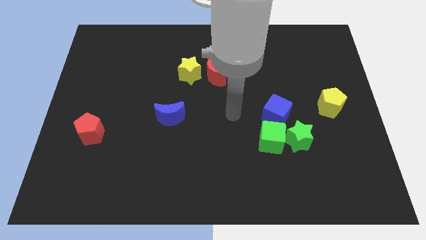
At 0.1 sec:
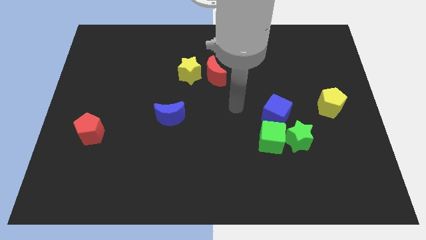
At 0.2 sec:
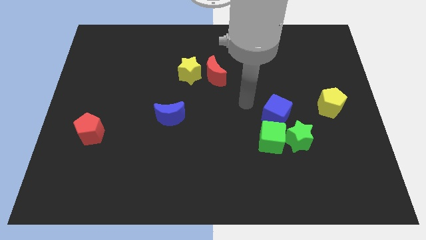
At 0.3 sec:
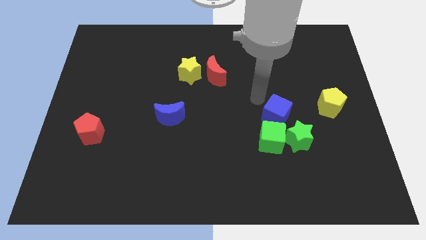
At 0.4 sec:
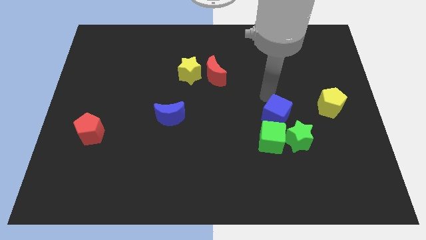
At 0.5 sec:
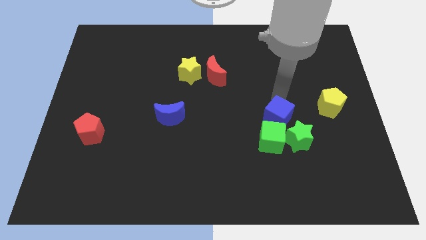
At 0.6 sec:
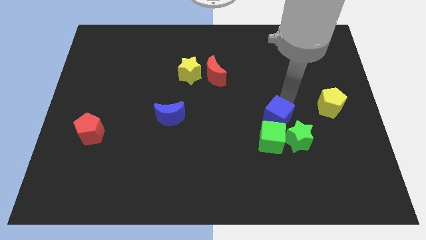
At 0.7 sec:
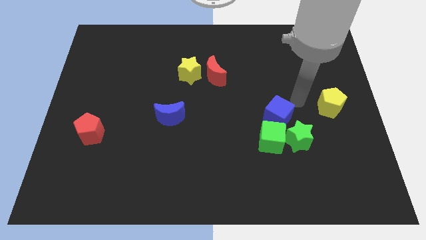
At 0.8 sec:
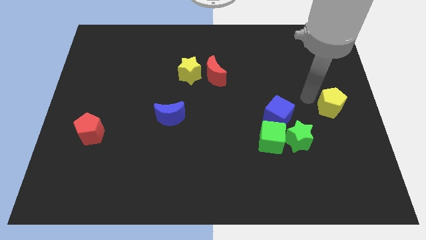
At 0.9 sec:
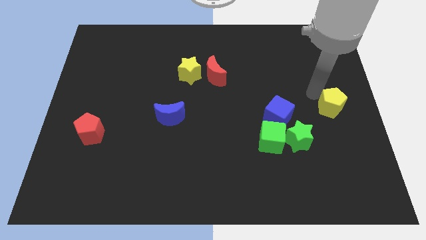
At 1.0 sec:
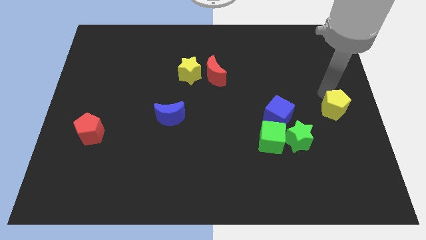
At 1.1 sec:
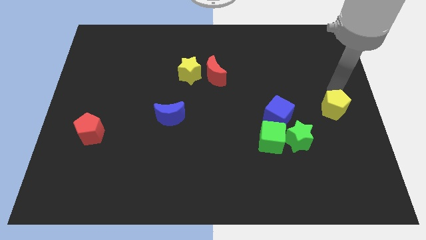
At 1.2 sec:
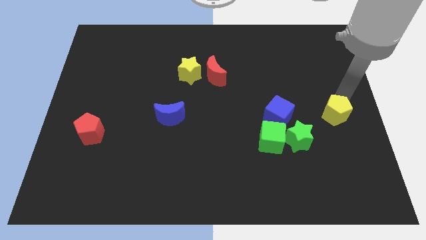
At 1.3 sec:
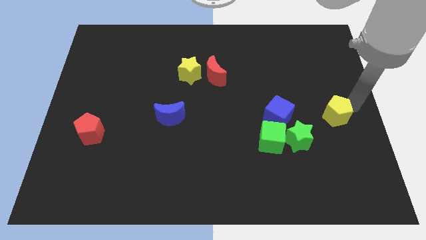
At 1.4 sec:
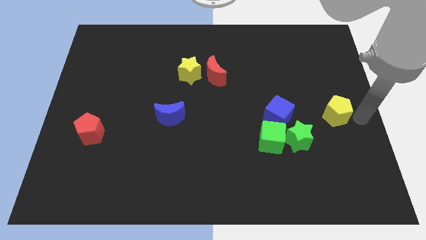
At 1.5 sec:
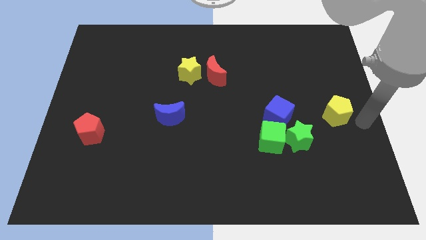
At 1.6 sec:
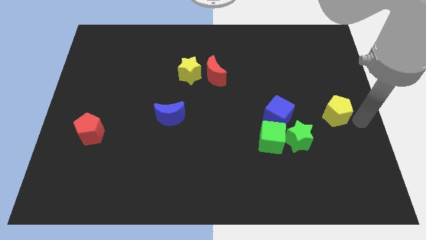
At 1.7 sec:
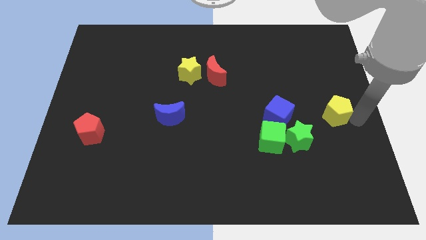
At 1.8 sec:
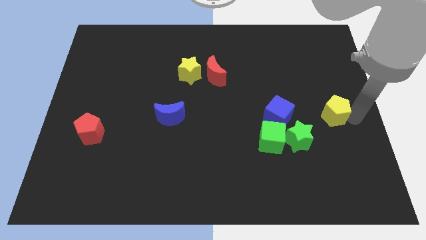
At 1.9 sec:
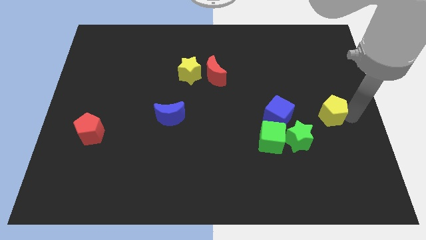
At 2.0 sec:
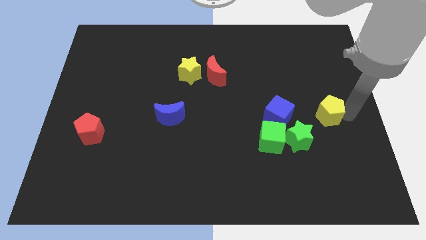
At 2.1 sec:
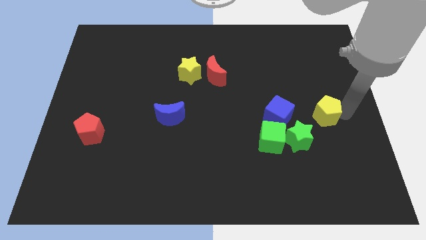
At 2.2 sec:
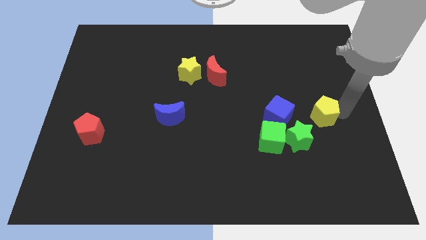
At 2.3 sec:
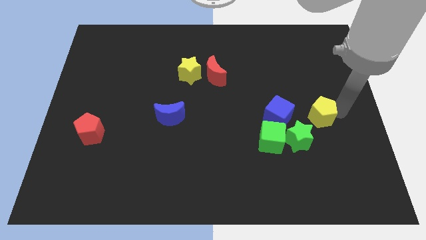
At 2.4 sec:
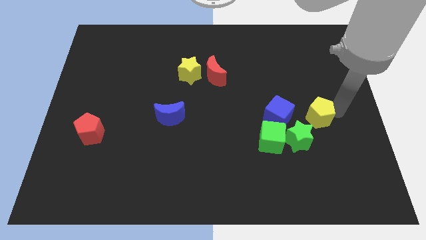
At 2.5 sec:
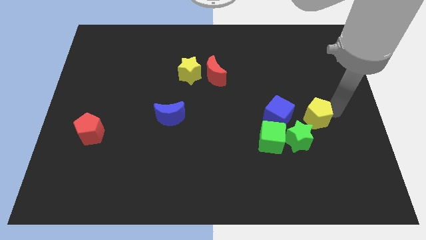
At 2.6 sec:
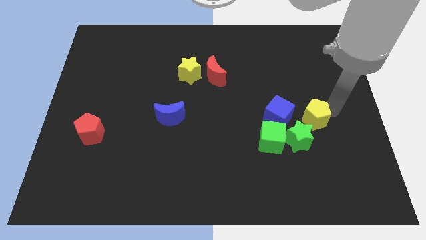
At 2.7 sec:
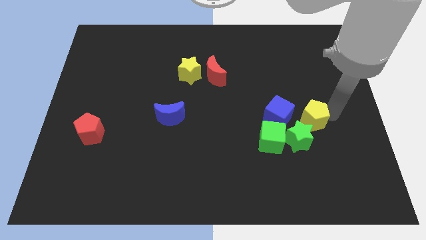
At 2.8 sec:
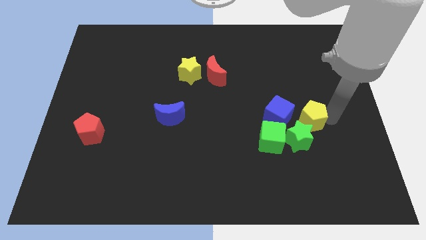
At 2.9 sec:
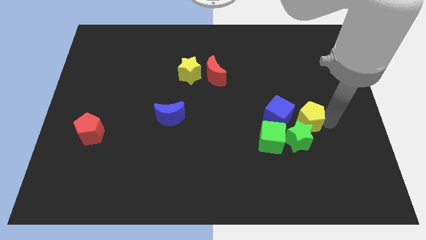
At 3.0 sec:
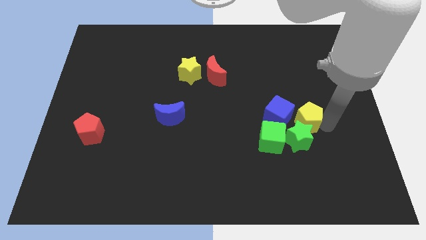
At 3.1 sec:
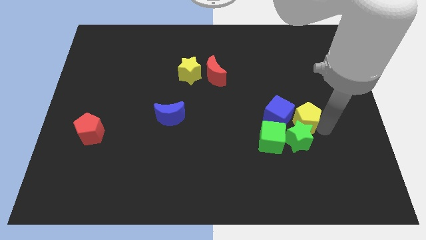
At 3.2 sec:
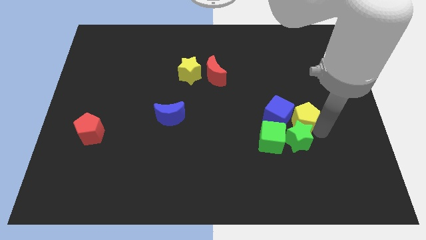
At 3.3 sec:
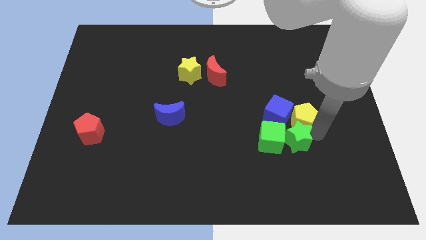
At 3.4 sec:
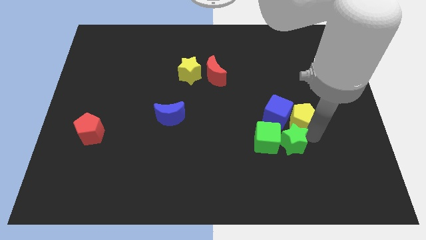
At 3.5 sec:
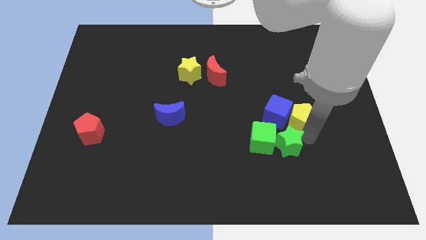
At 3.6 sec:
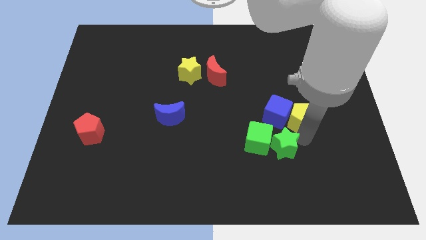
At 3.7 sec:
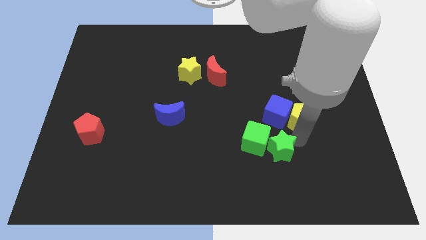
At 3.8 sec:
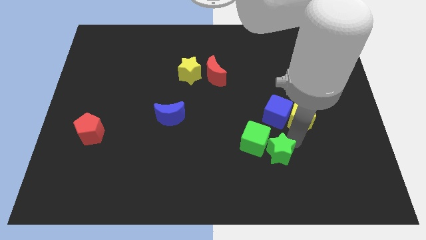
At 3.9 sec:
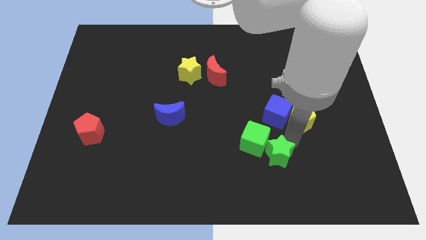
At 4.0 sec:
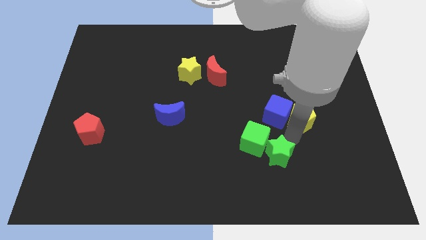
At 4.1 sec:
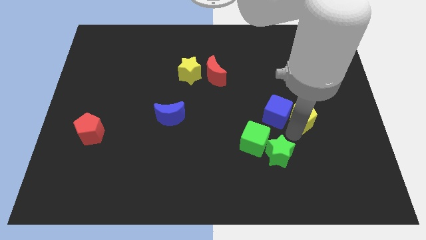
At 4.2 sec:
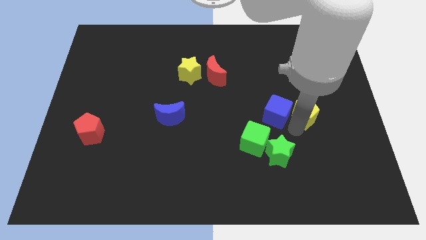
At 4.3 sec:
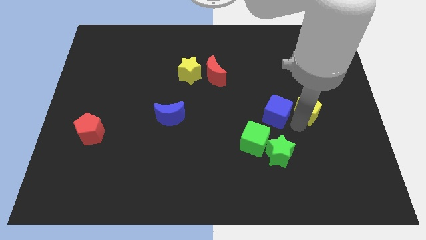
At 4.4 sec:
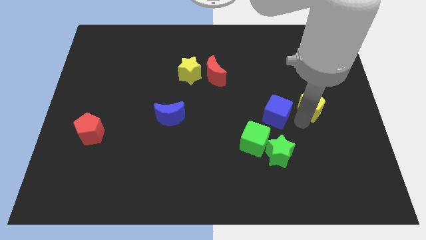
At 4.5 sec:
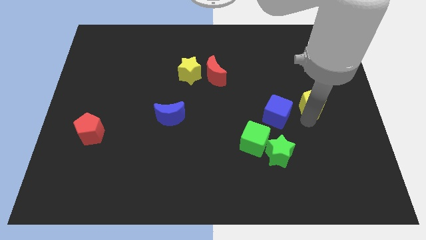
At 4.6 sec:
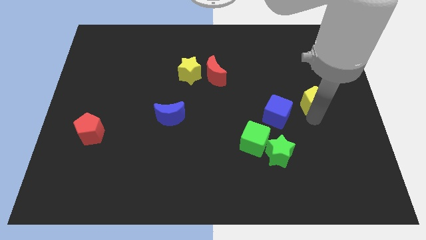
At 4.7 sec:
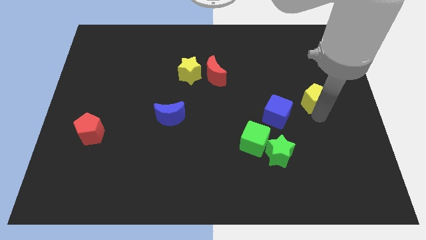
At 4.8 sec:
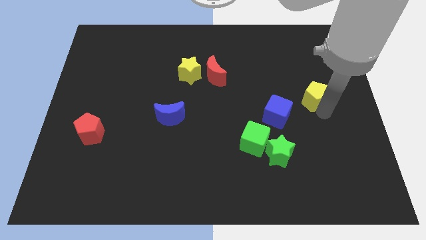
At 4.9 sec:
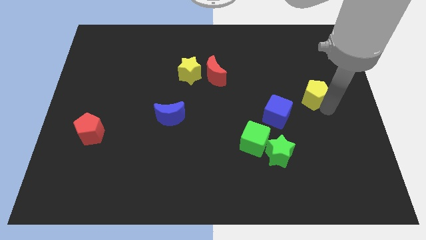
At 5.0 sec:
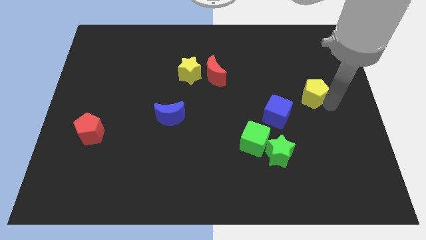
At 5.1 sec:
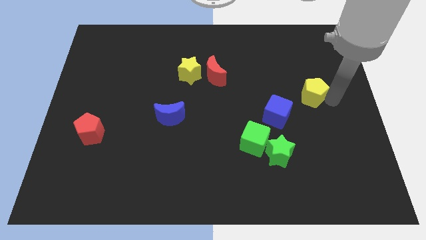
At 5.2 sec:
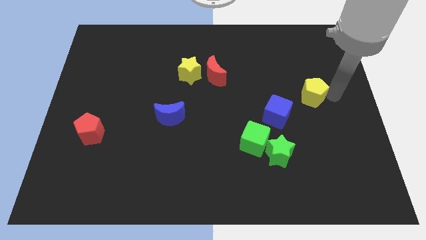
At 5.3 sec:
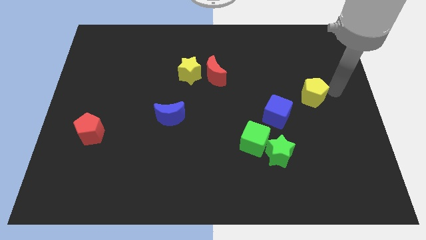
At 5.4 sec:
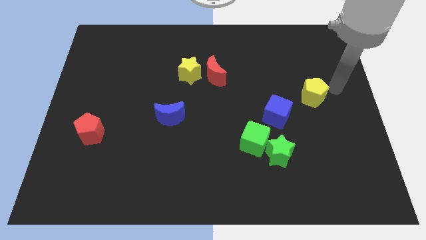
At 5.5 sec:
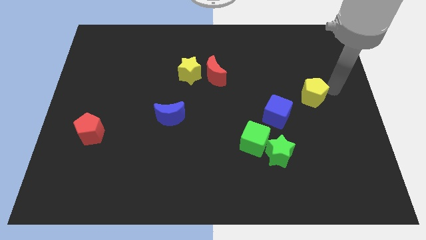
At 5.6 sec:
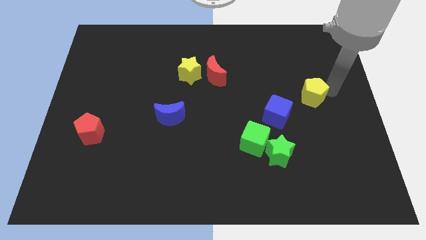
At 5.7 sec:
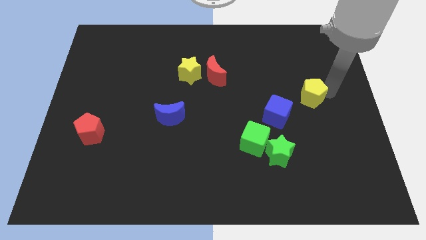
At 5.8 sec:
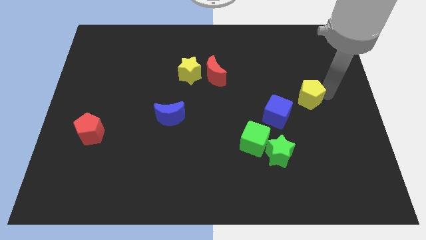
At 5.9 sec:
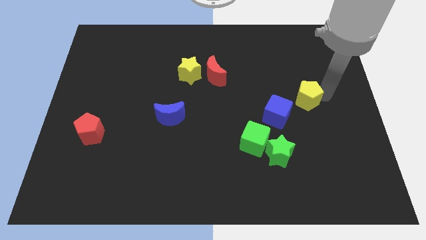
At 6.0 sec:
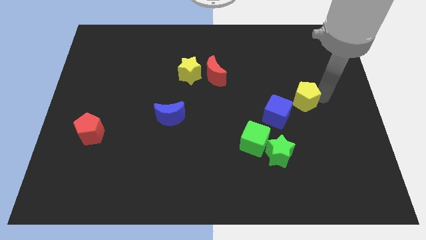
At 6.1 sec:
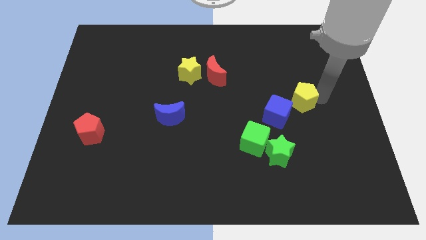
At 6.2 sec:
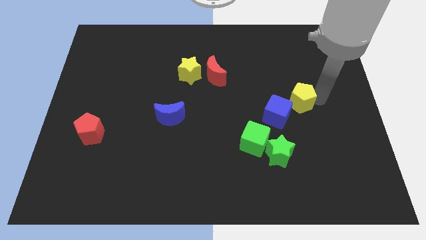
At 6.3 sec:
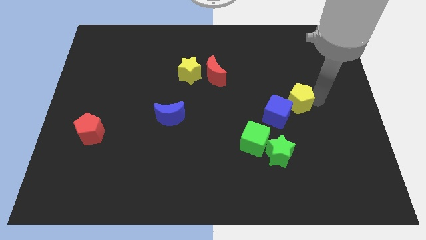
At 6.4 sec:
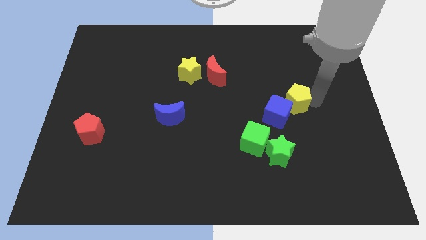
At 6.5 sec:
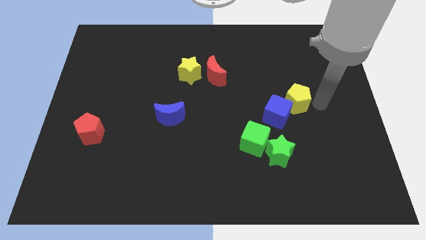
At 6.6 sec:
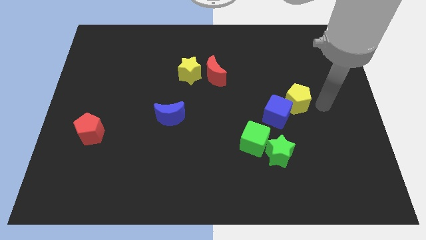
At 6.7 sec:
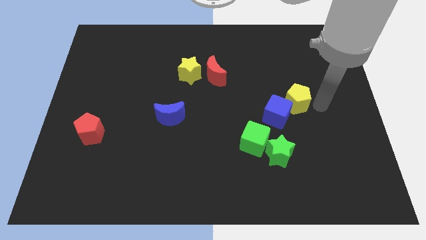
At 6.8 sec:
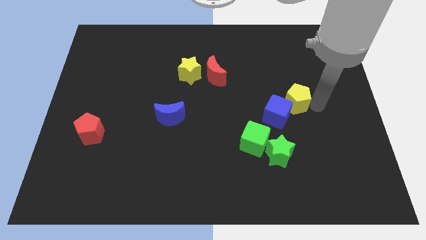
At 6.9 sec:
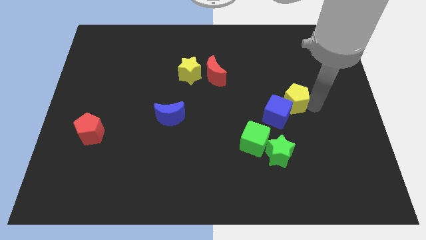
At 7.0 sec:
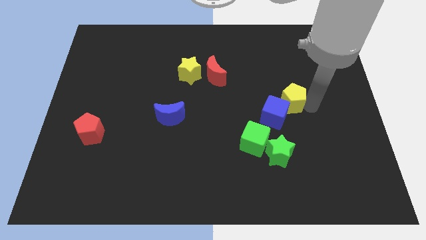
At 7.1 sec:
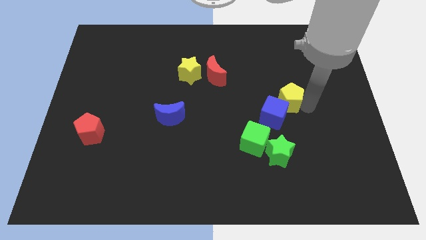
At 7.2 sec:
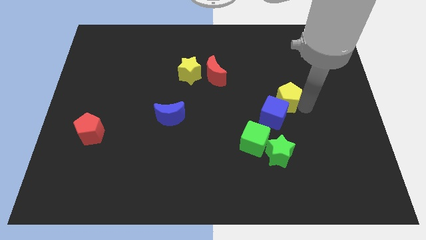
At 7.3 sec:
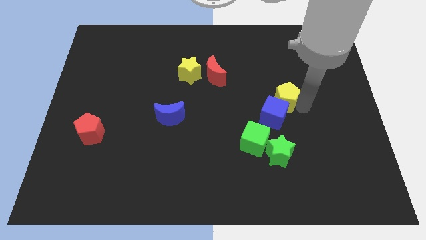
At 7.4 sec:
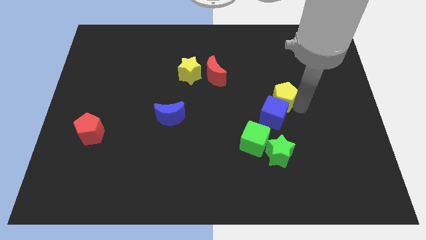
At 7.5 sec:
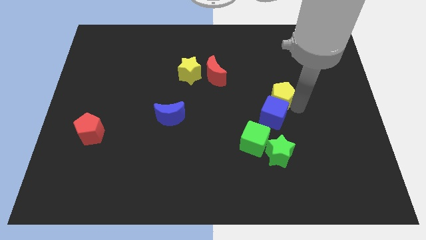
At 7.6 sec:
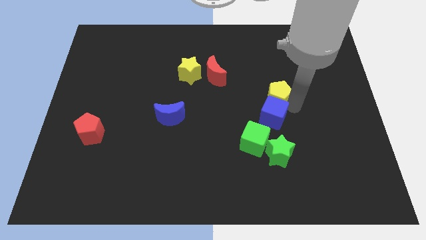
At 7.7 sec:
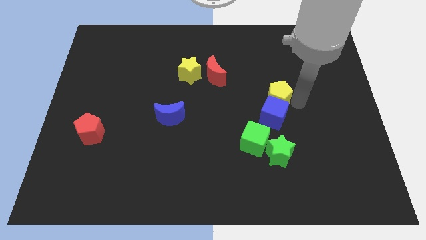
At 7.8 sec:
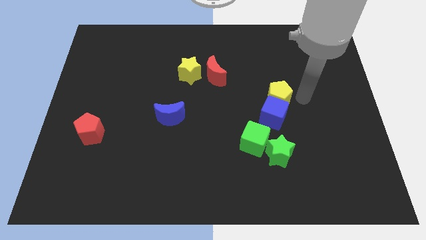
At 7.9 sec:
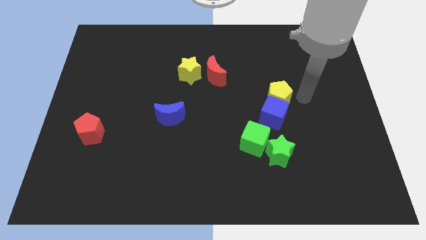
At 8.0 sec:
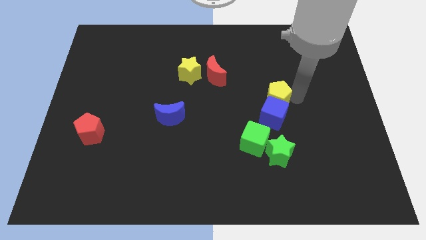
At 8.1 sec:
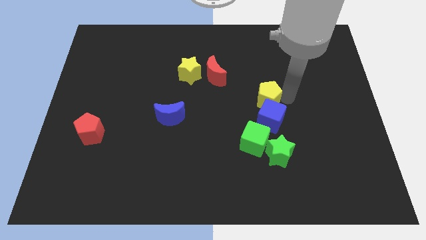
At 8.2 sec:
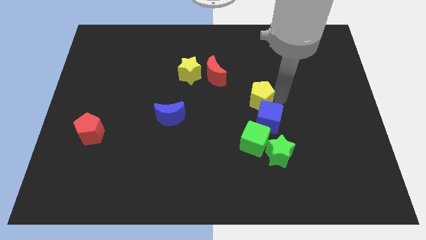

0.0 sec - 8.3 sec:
slide the yellow pentagon to the center of the board
